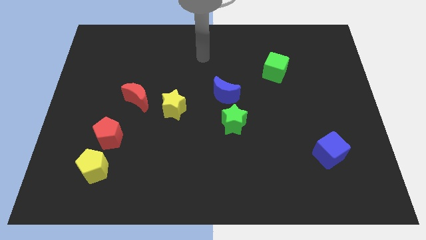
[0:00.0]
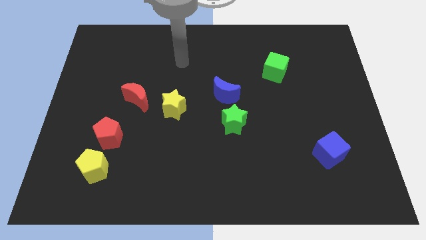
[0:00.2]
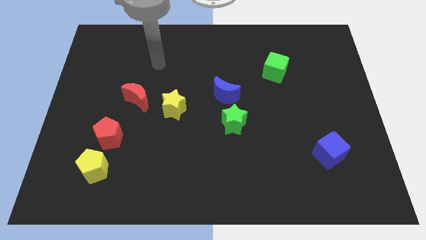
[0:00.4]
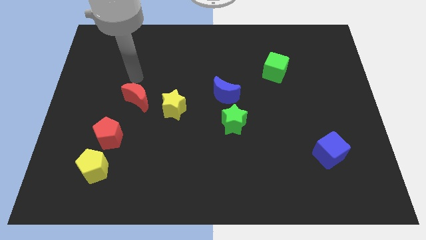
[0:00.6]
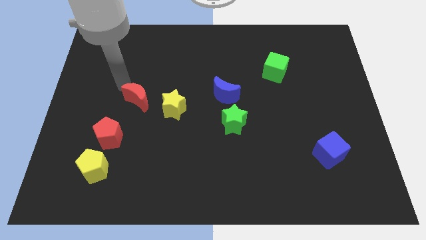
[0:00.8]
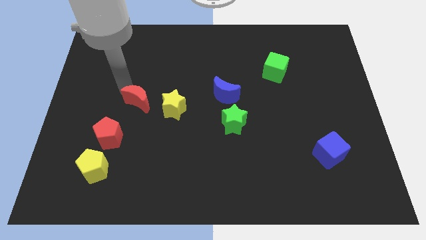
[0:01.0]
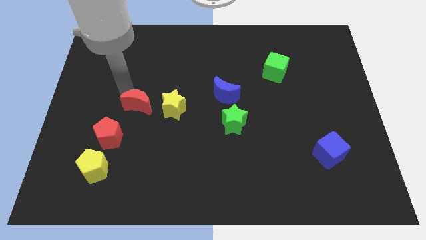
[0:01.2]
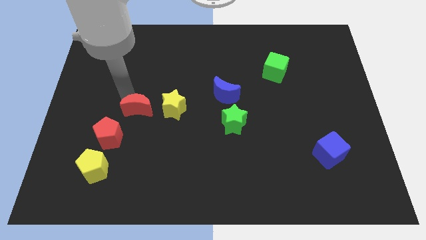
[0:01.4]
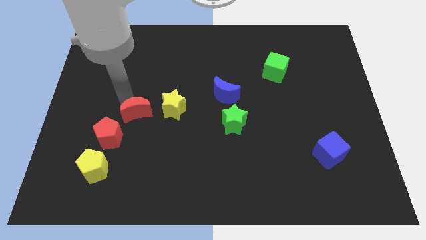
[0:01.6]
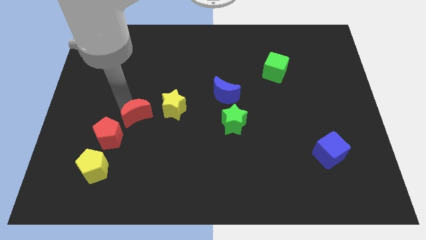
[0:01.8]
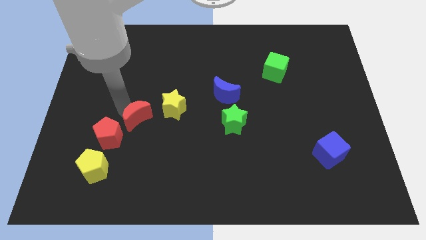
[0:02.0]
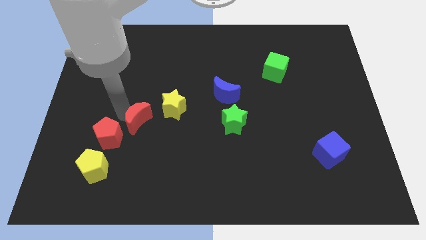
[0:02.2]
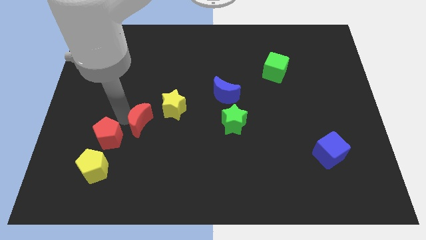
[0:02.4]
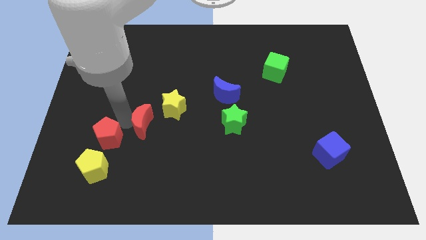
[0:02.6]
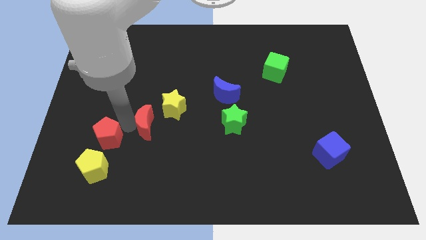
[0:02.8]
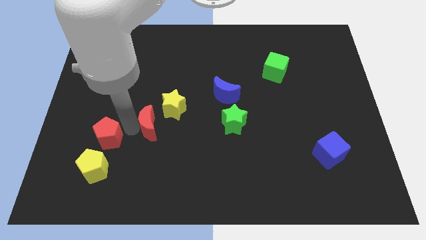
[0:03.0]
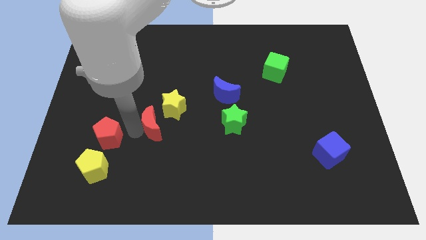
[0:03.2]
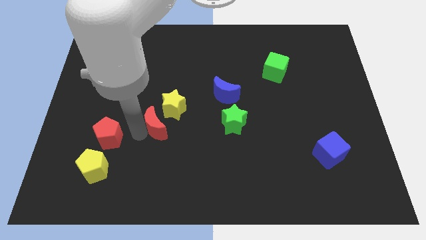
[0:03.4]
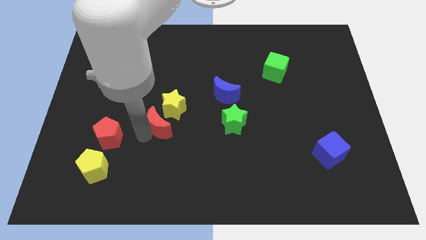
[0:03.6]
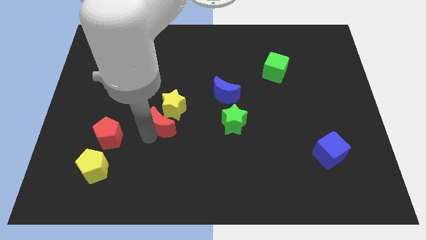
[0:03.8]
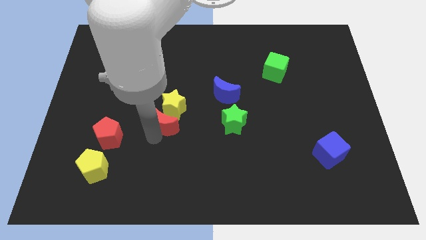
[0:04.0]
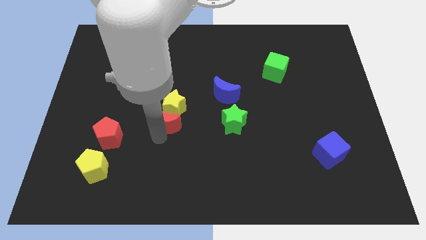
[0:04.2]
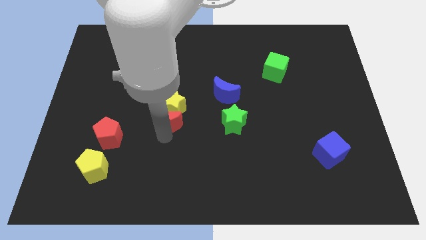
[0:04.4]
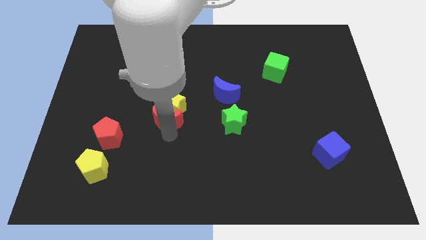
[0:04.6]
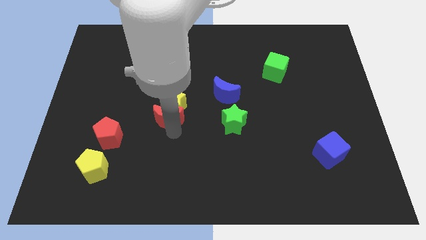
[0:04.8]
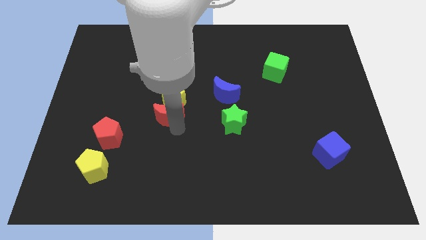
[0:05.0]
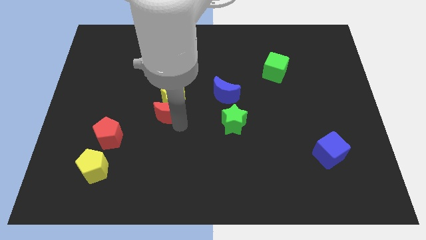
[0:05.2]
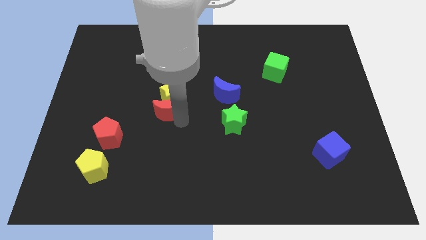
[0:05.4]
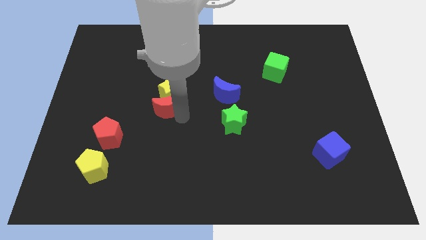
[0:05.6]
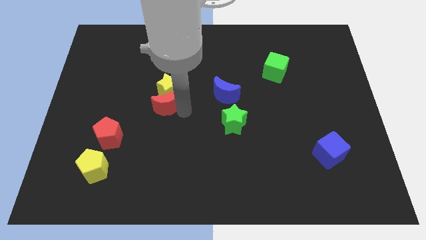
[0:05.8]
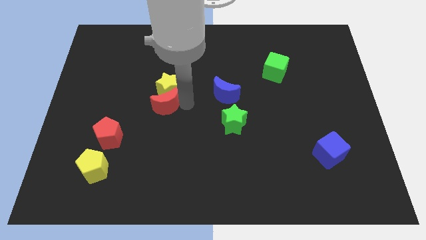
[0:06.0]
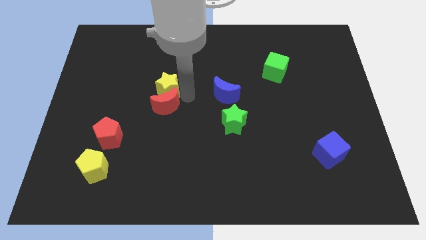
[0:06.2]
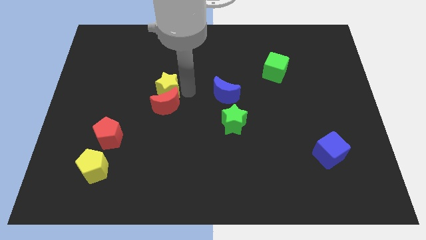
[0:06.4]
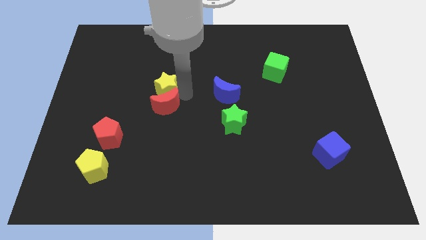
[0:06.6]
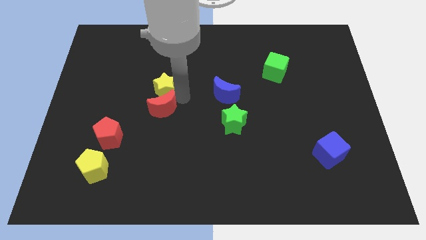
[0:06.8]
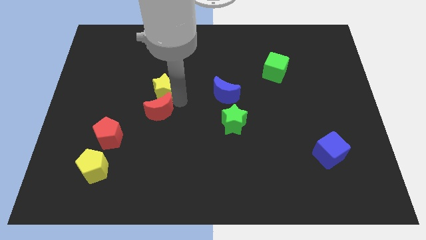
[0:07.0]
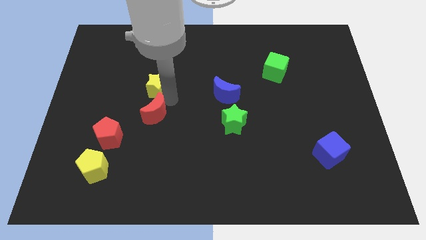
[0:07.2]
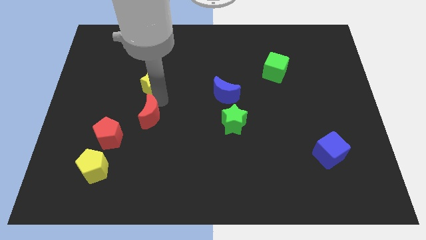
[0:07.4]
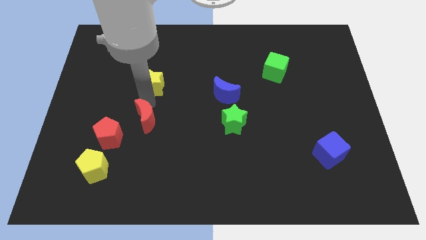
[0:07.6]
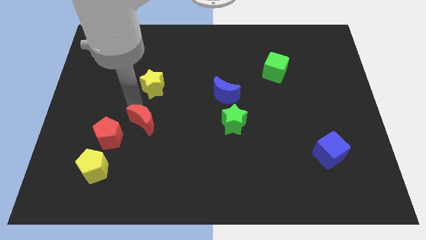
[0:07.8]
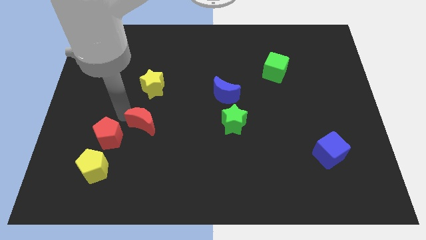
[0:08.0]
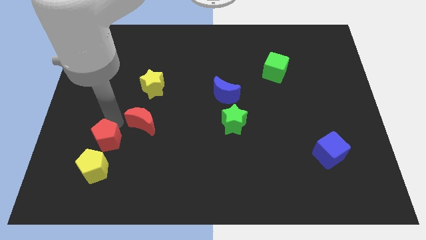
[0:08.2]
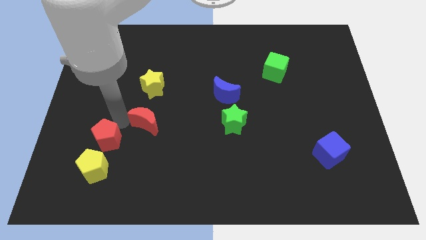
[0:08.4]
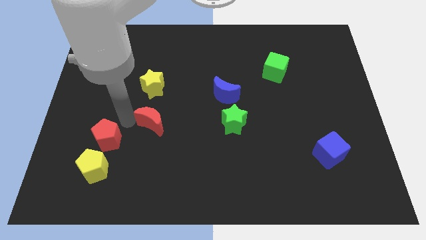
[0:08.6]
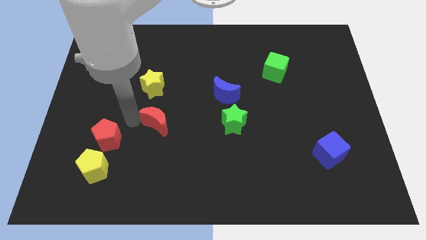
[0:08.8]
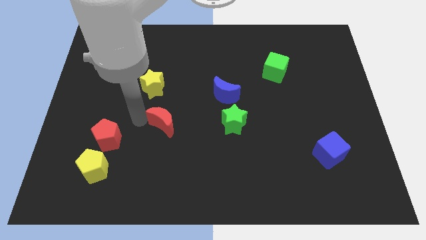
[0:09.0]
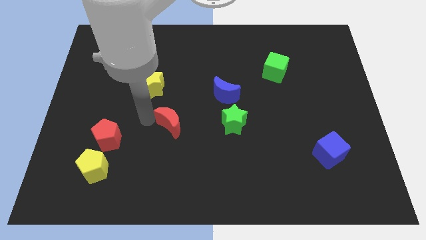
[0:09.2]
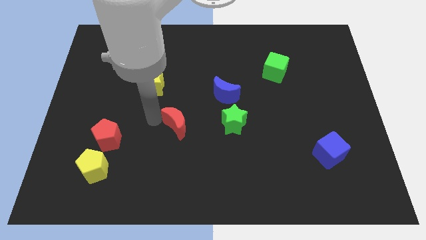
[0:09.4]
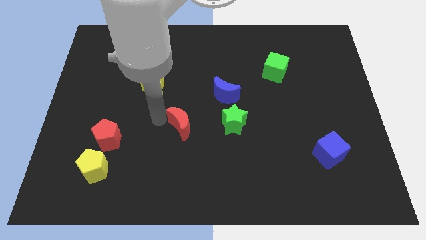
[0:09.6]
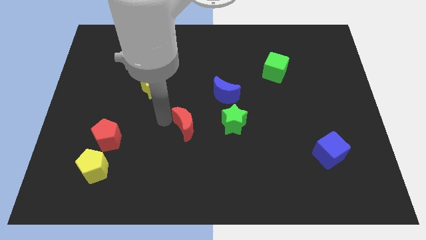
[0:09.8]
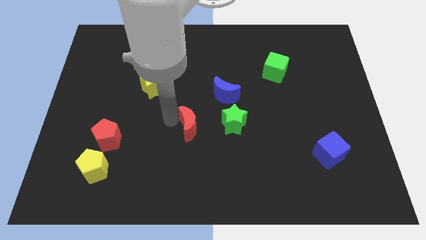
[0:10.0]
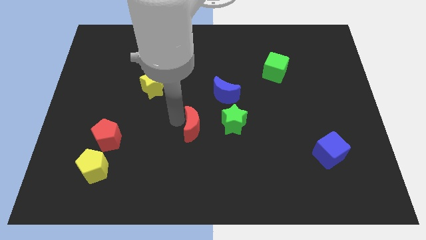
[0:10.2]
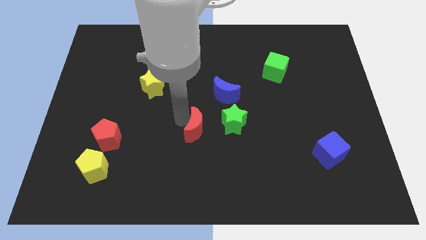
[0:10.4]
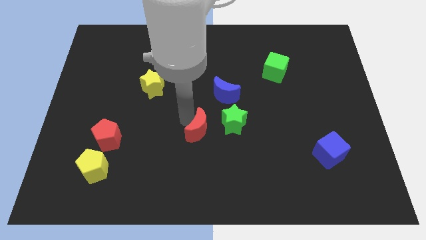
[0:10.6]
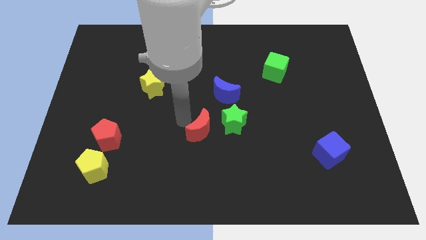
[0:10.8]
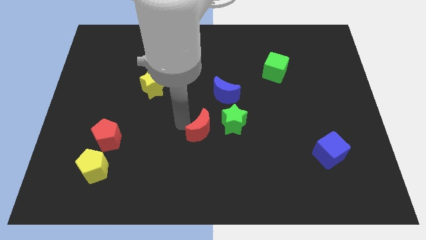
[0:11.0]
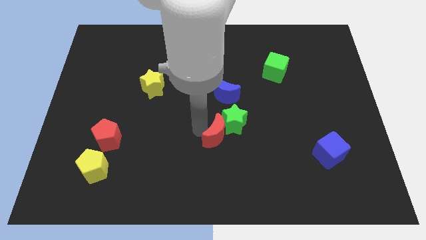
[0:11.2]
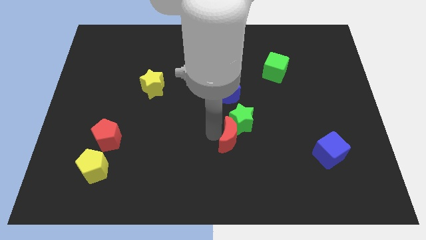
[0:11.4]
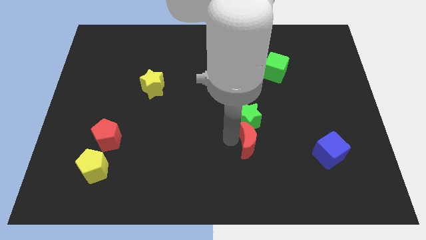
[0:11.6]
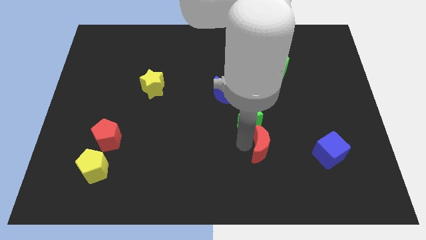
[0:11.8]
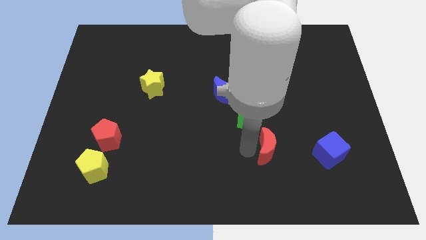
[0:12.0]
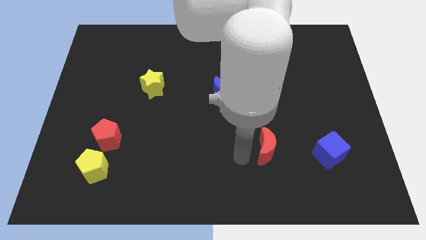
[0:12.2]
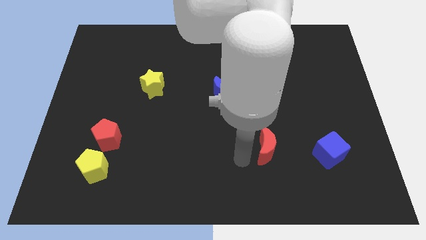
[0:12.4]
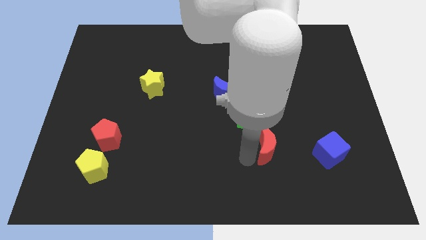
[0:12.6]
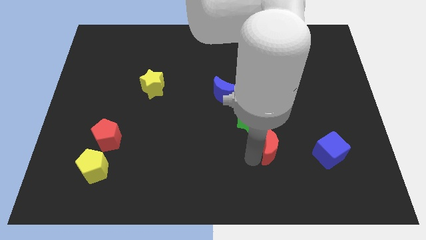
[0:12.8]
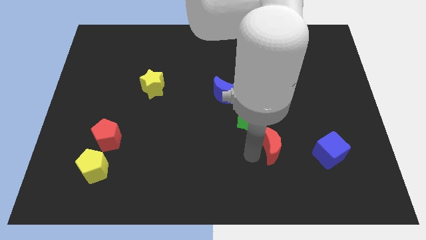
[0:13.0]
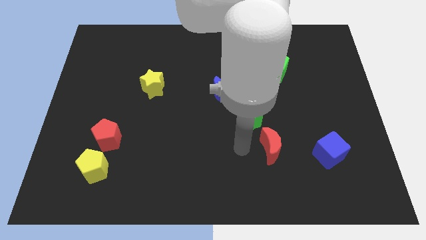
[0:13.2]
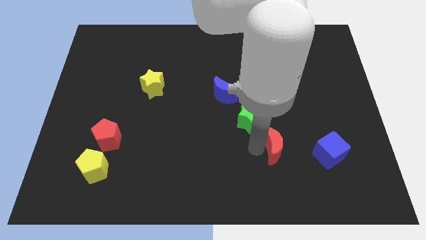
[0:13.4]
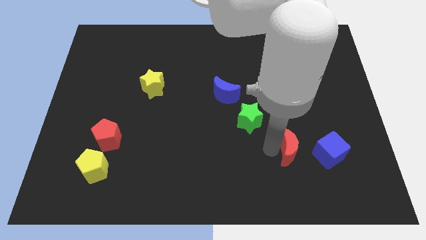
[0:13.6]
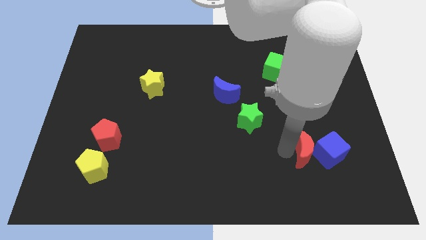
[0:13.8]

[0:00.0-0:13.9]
slide the red moon to the blue cube
